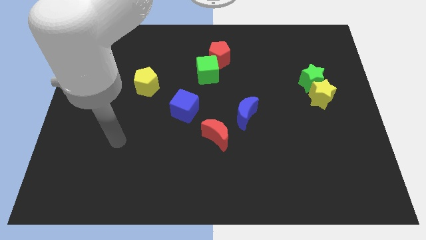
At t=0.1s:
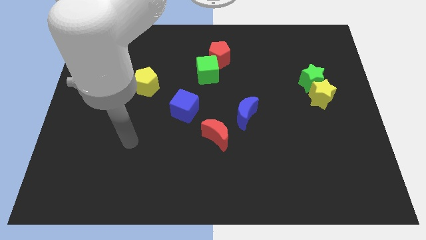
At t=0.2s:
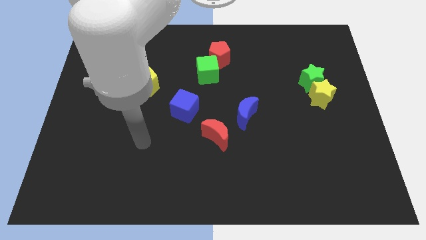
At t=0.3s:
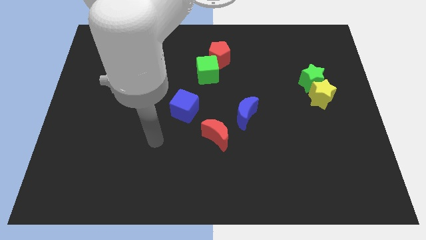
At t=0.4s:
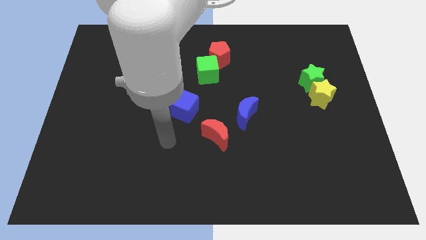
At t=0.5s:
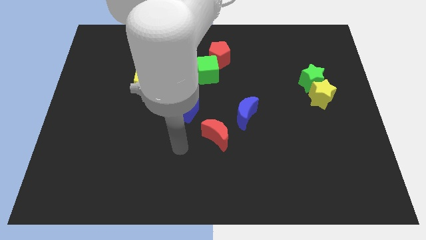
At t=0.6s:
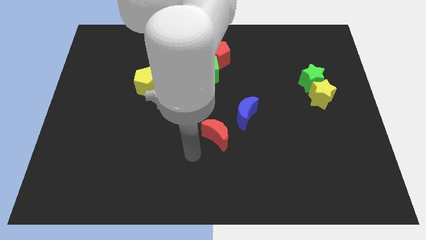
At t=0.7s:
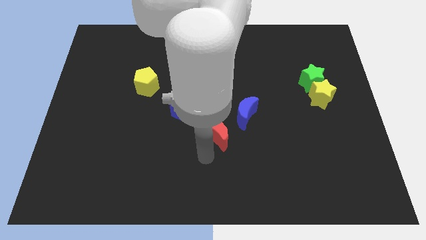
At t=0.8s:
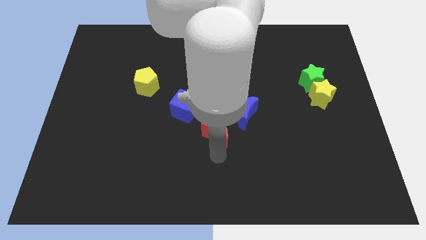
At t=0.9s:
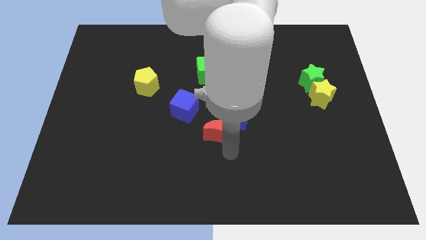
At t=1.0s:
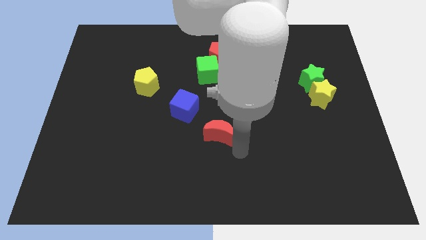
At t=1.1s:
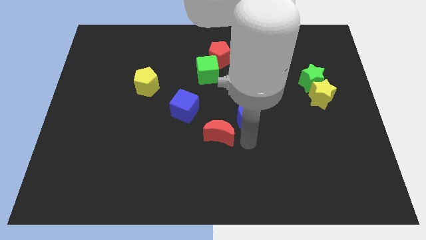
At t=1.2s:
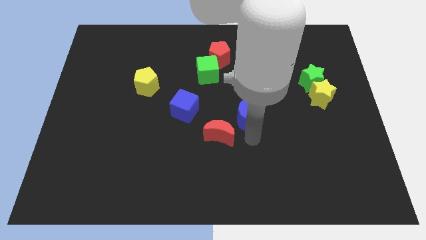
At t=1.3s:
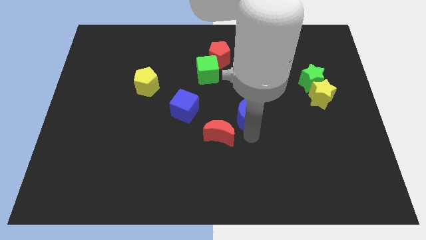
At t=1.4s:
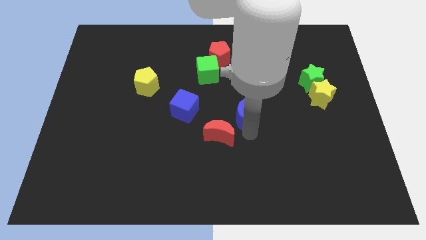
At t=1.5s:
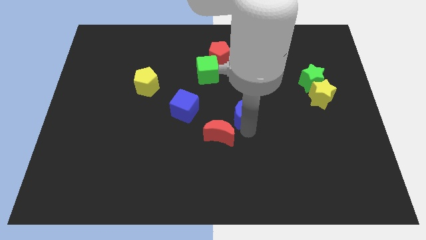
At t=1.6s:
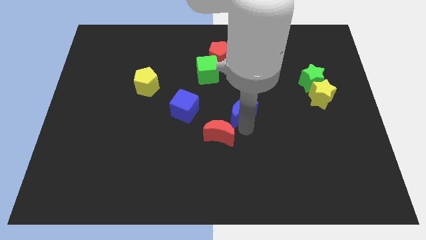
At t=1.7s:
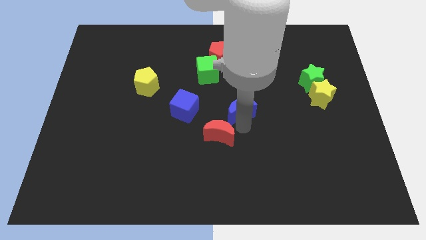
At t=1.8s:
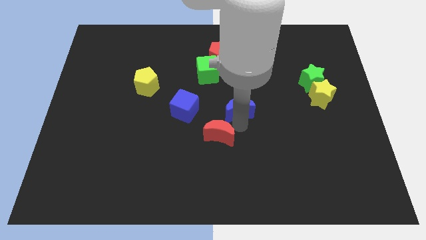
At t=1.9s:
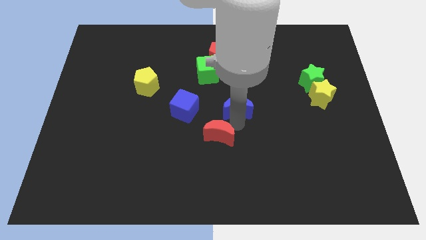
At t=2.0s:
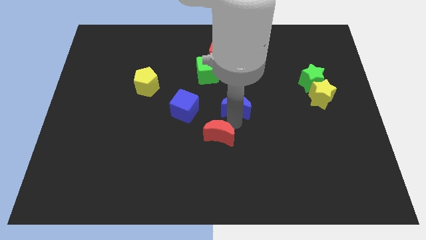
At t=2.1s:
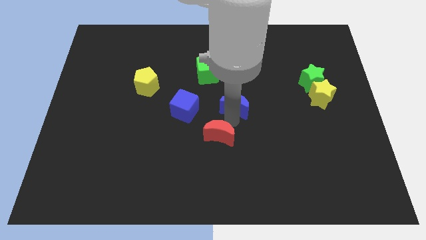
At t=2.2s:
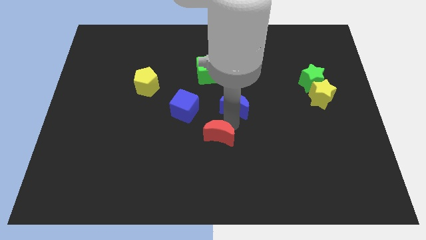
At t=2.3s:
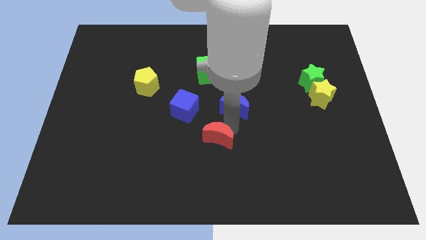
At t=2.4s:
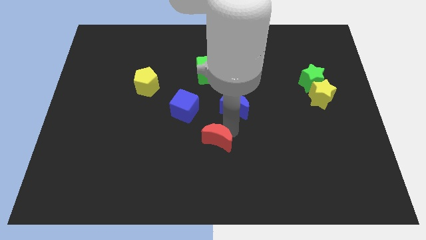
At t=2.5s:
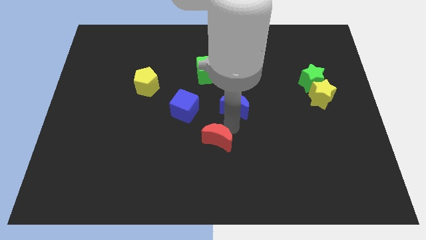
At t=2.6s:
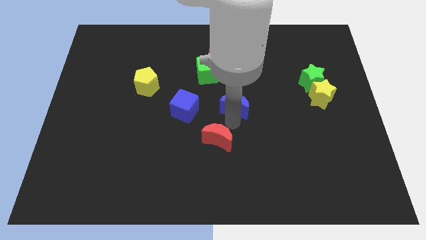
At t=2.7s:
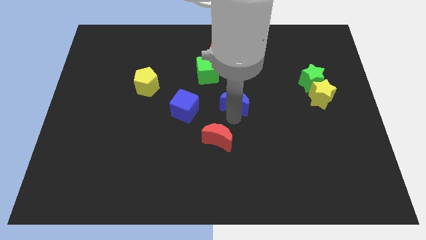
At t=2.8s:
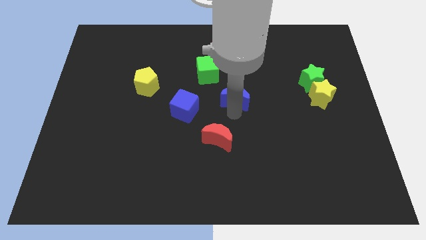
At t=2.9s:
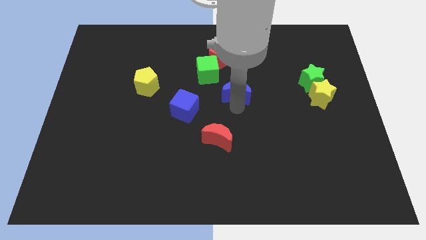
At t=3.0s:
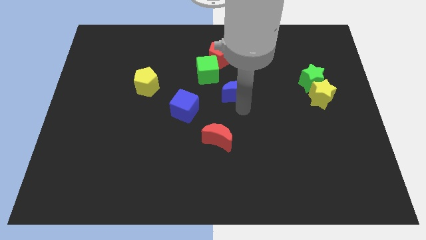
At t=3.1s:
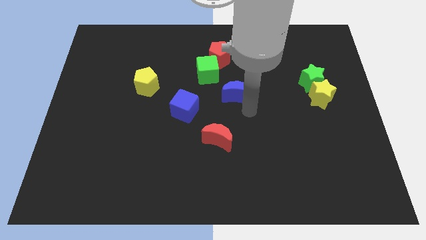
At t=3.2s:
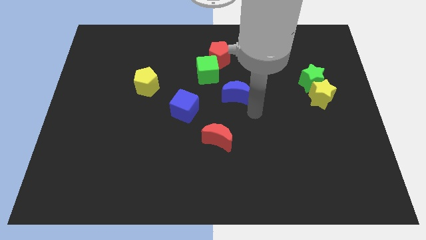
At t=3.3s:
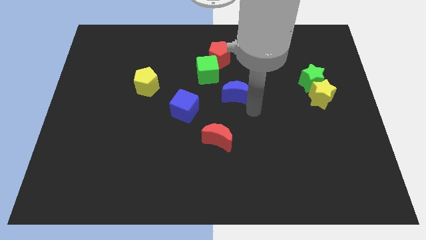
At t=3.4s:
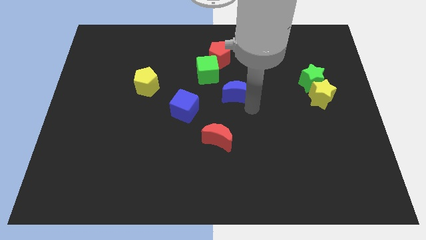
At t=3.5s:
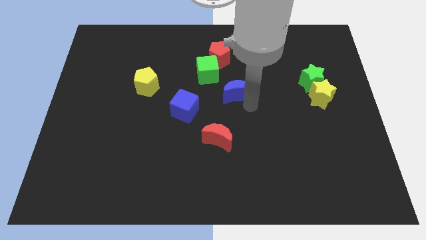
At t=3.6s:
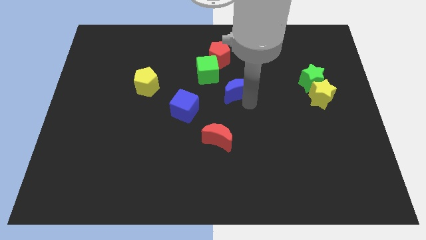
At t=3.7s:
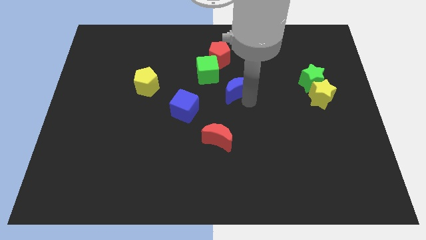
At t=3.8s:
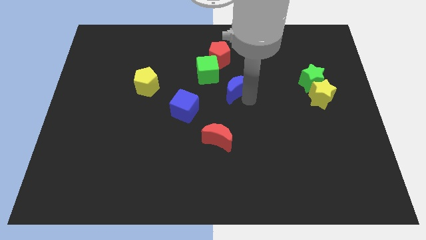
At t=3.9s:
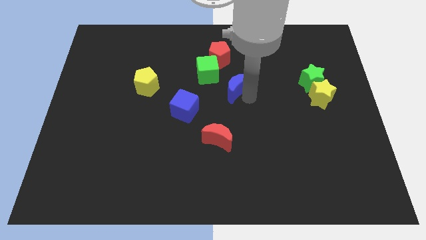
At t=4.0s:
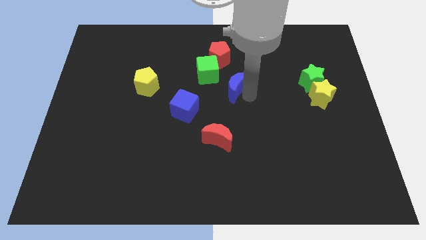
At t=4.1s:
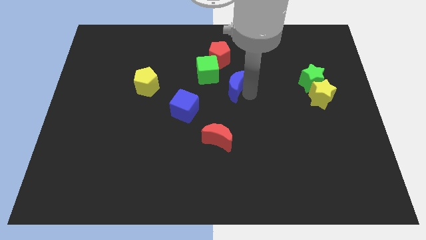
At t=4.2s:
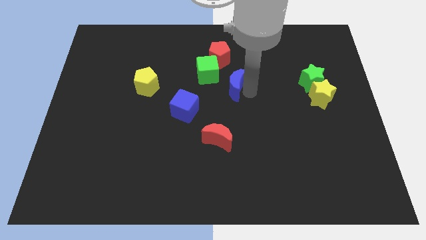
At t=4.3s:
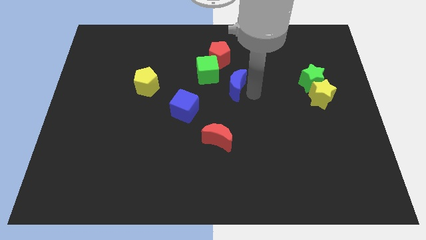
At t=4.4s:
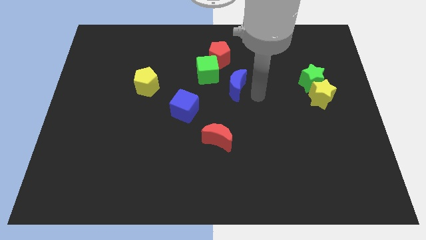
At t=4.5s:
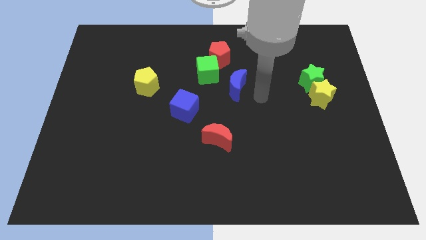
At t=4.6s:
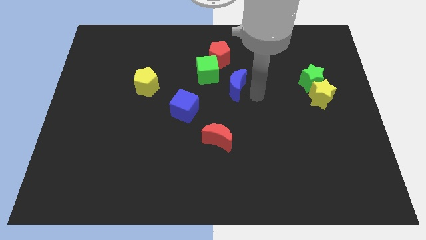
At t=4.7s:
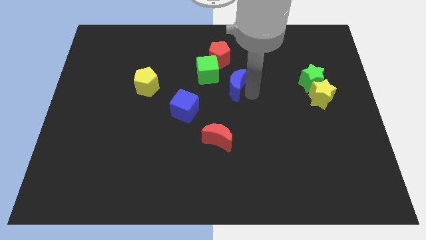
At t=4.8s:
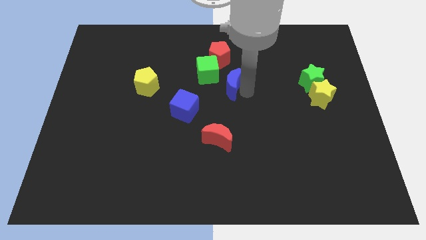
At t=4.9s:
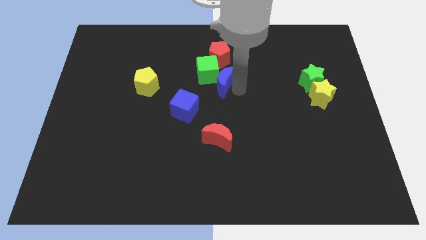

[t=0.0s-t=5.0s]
slide the blue moon next to the green cube

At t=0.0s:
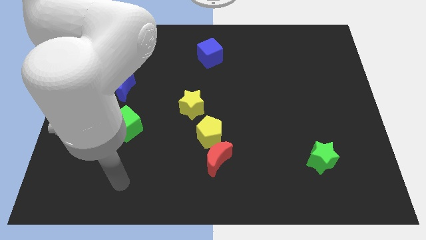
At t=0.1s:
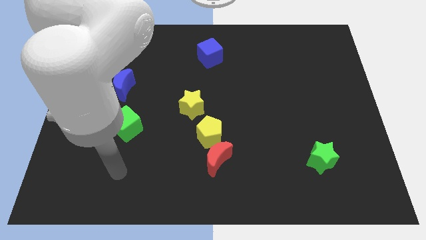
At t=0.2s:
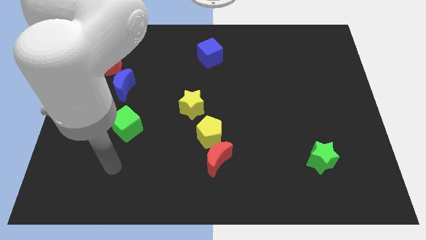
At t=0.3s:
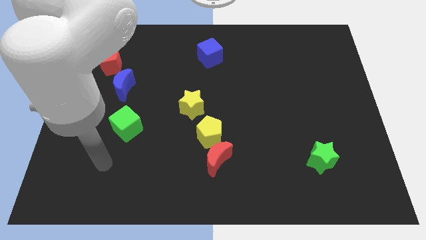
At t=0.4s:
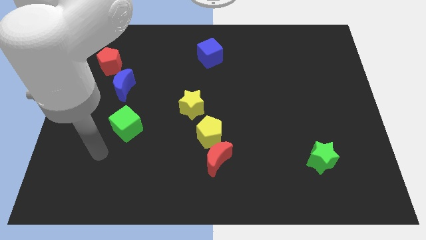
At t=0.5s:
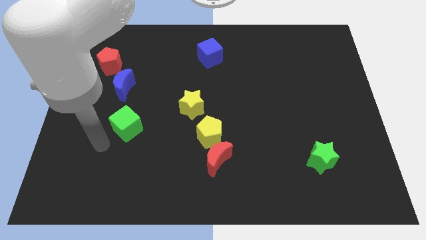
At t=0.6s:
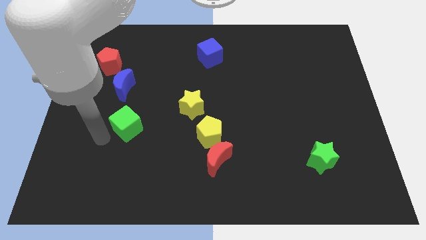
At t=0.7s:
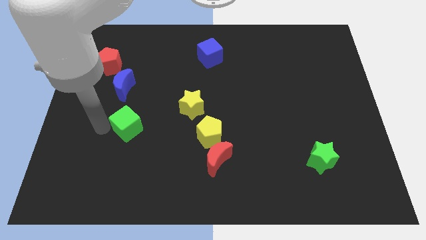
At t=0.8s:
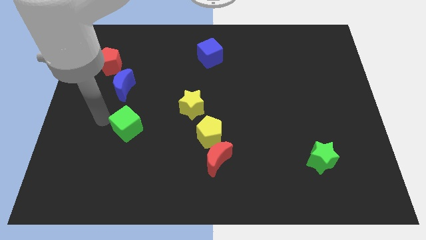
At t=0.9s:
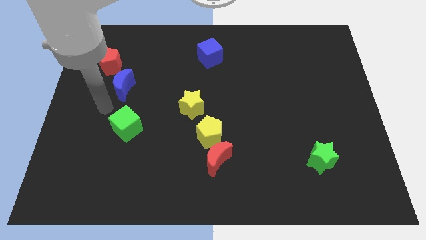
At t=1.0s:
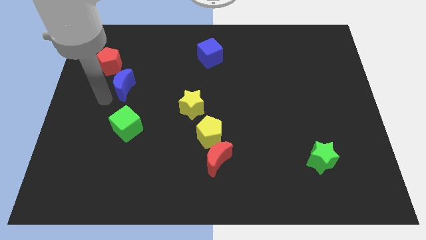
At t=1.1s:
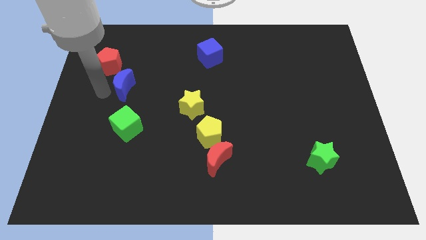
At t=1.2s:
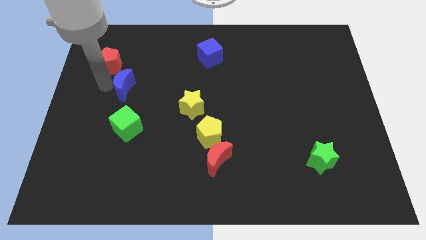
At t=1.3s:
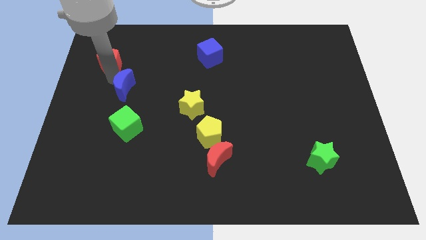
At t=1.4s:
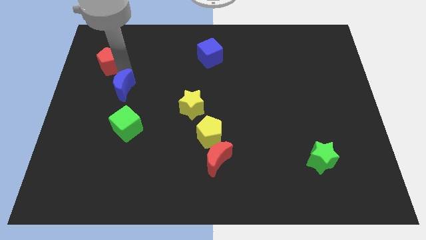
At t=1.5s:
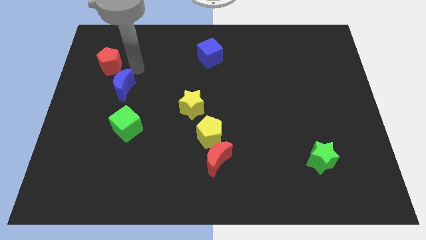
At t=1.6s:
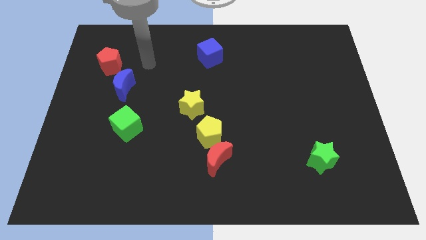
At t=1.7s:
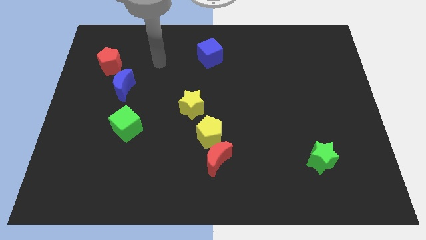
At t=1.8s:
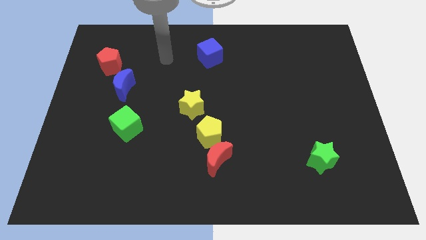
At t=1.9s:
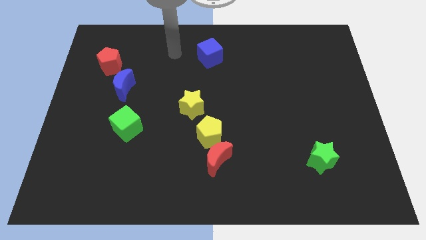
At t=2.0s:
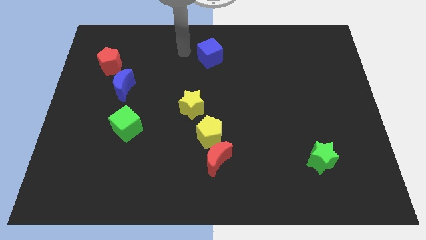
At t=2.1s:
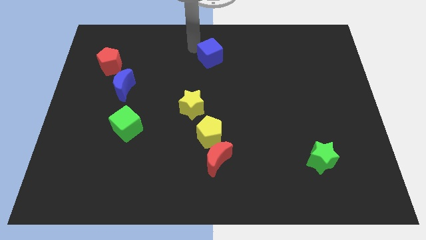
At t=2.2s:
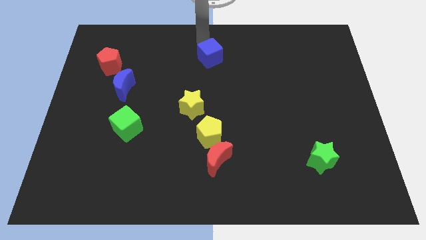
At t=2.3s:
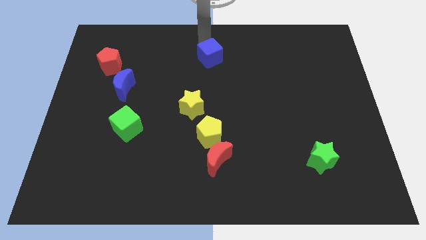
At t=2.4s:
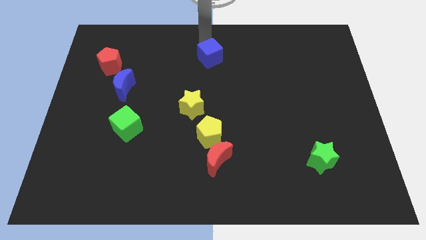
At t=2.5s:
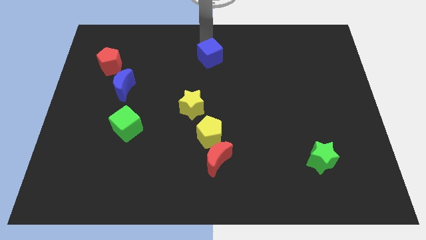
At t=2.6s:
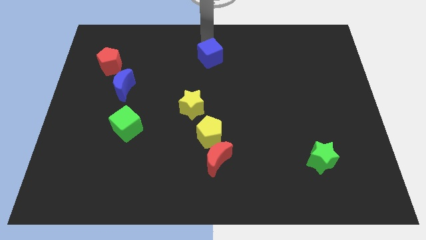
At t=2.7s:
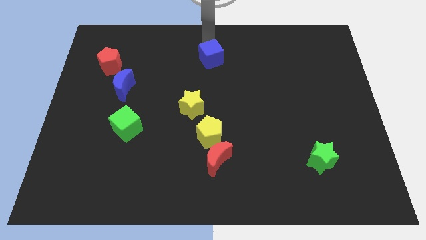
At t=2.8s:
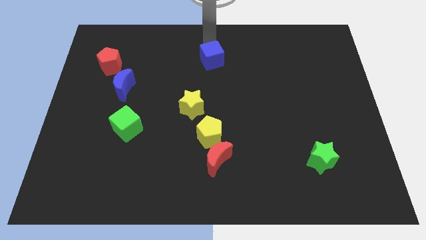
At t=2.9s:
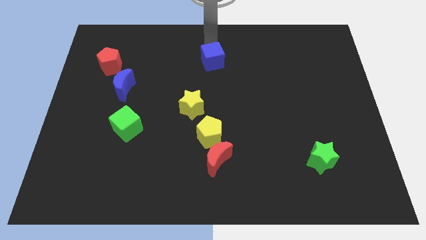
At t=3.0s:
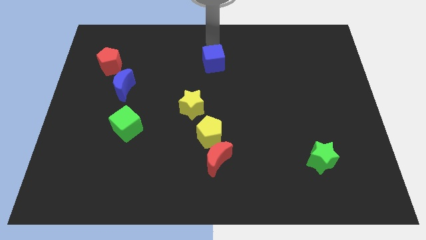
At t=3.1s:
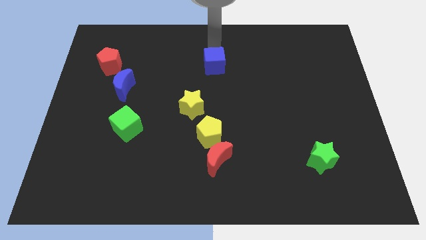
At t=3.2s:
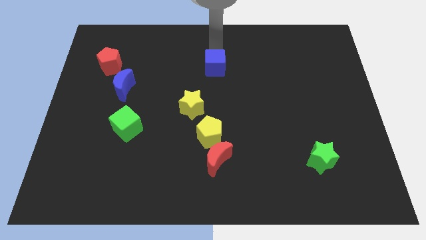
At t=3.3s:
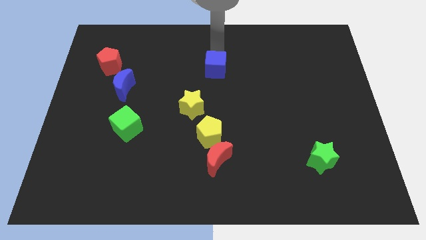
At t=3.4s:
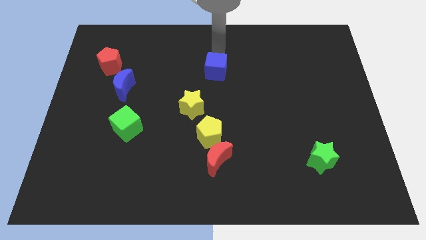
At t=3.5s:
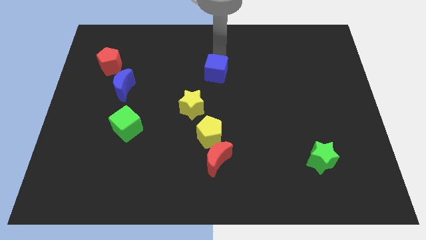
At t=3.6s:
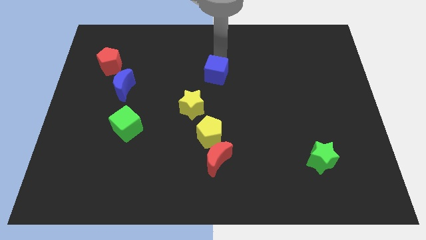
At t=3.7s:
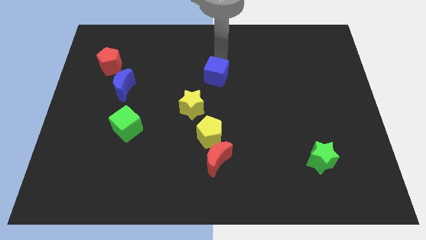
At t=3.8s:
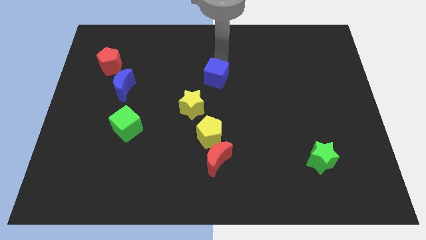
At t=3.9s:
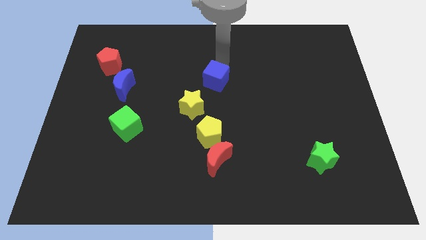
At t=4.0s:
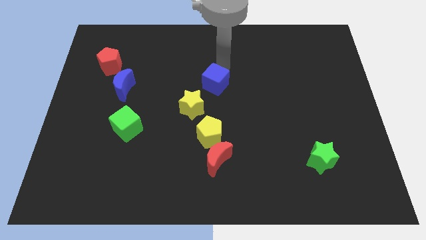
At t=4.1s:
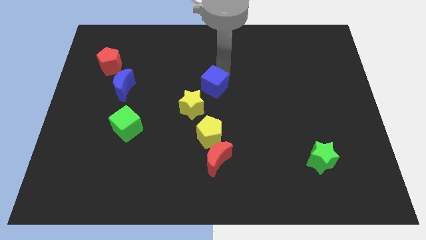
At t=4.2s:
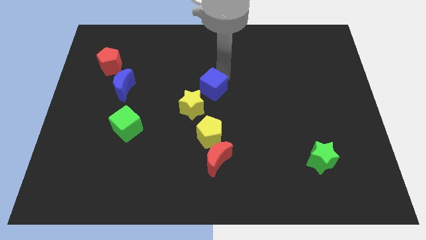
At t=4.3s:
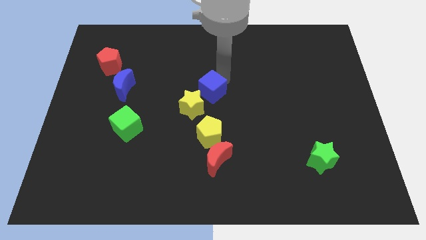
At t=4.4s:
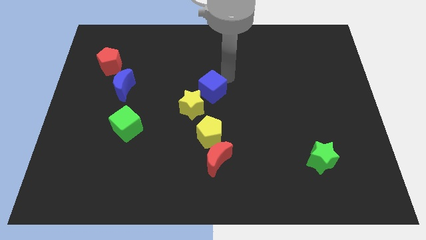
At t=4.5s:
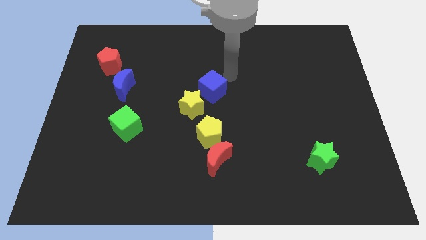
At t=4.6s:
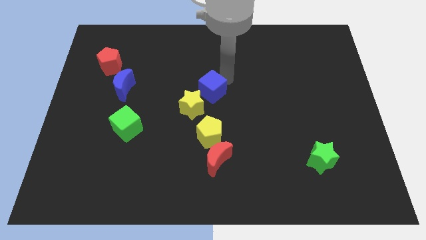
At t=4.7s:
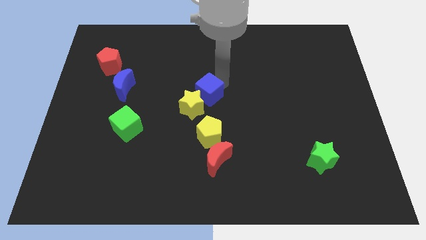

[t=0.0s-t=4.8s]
put the blue cube towards the yellow star
